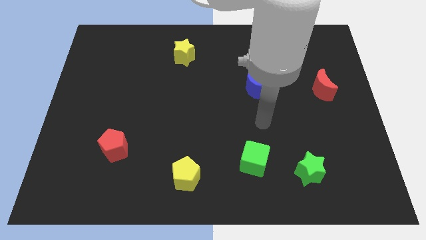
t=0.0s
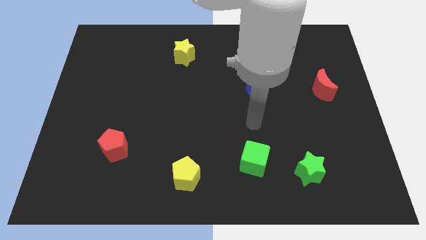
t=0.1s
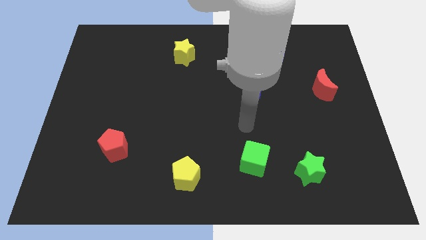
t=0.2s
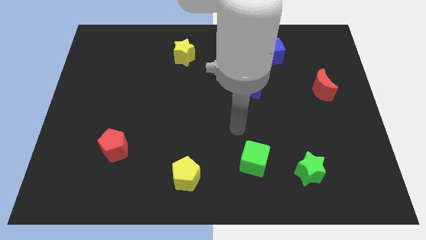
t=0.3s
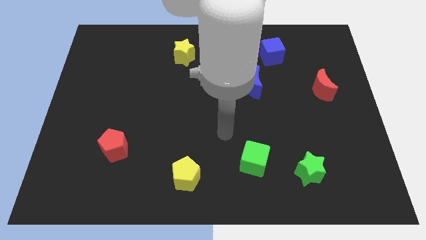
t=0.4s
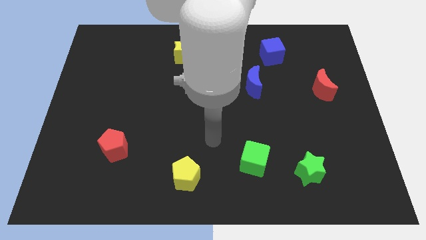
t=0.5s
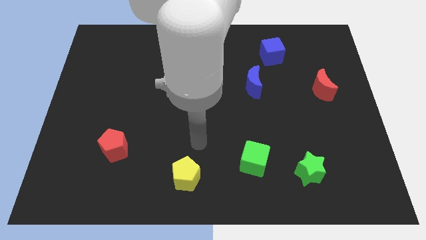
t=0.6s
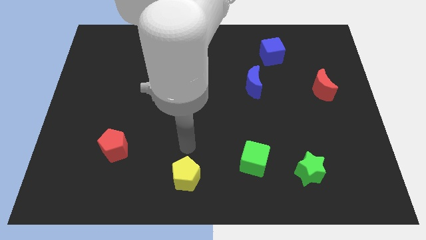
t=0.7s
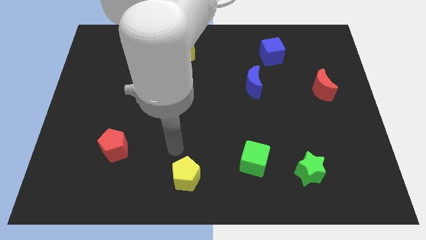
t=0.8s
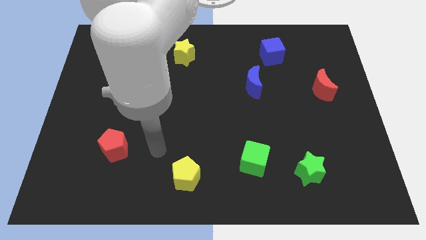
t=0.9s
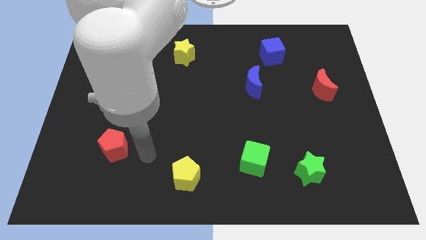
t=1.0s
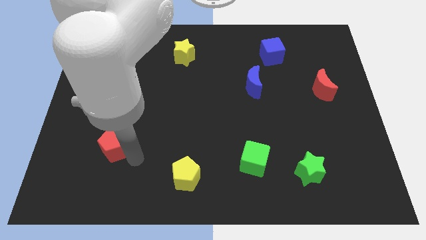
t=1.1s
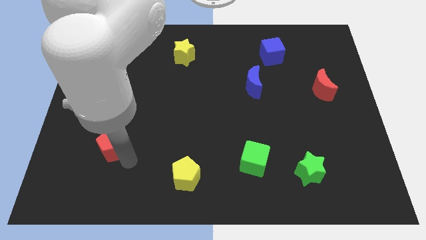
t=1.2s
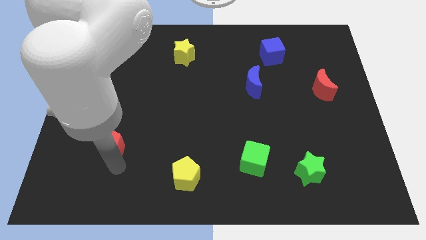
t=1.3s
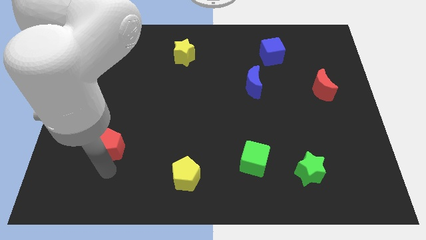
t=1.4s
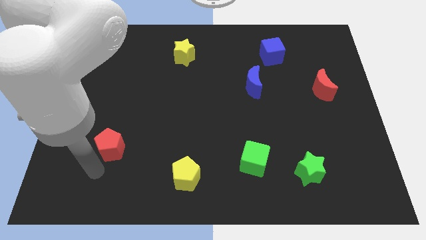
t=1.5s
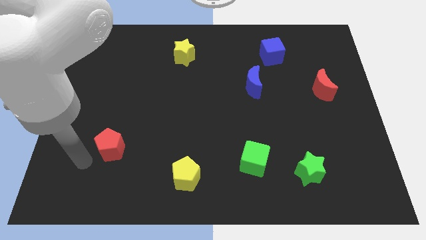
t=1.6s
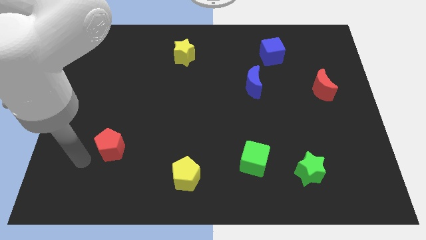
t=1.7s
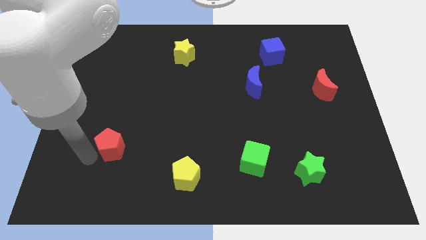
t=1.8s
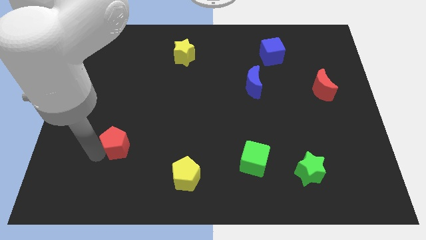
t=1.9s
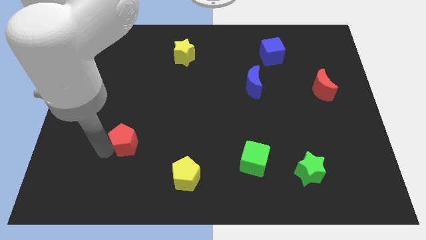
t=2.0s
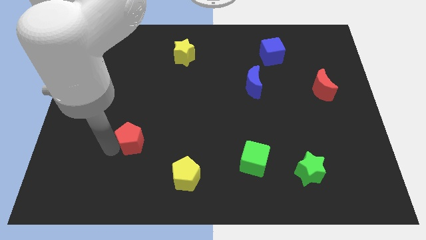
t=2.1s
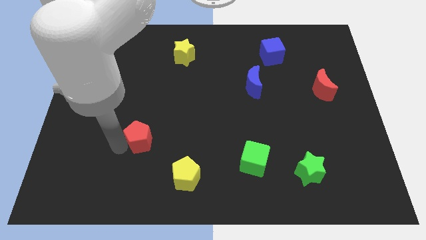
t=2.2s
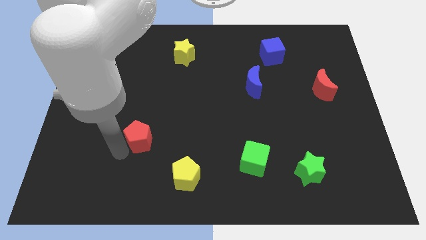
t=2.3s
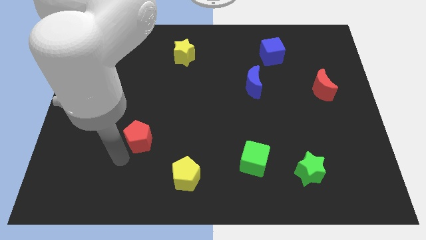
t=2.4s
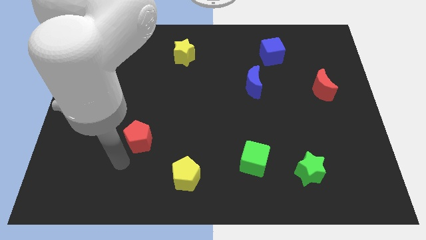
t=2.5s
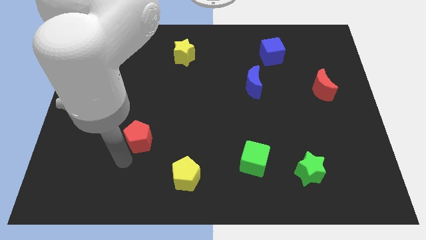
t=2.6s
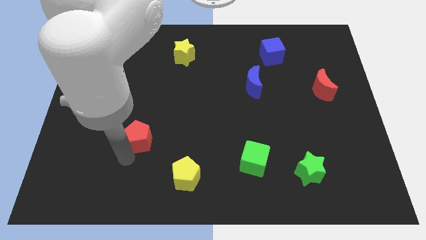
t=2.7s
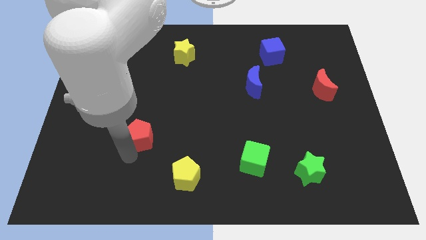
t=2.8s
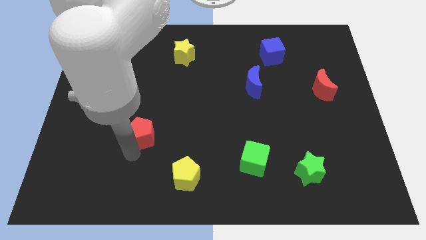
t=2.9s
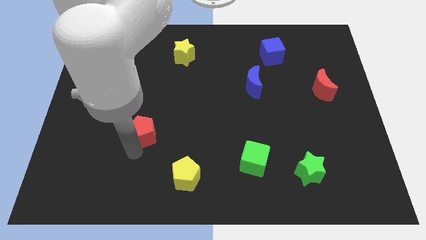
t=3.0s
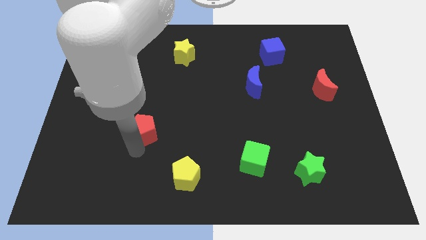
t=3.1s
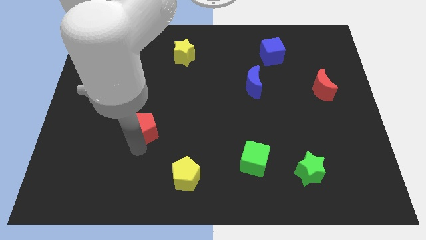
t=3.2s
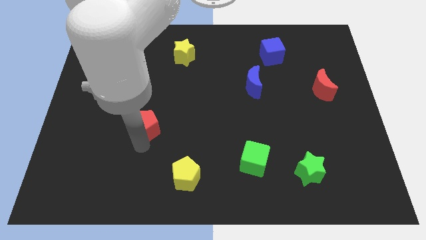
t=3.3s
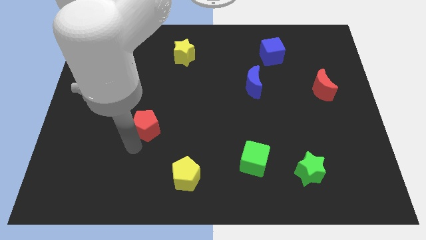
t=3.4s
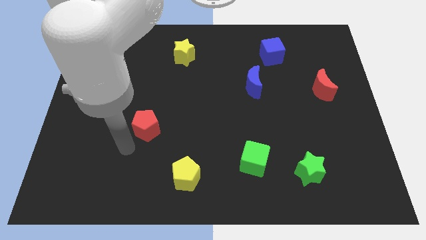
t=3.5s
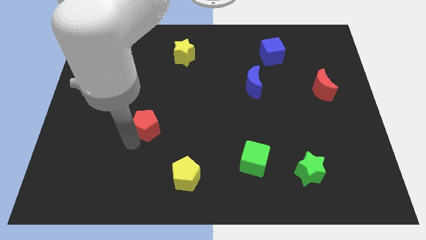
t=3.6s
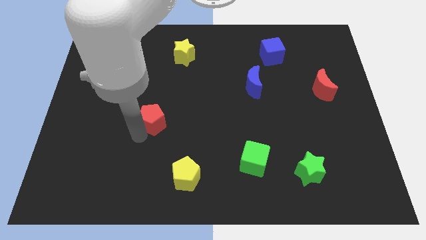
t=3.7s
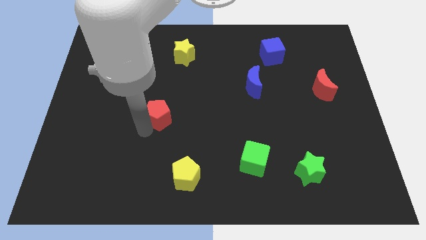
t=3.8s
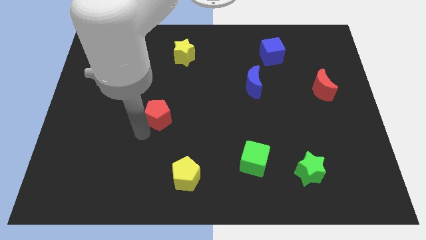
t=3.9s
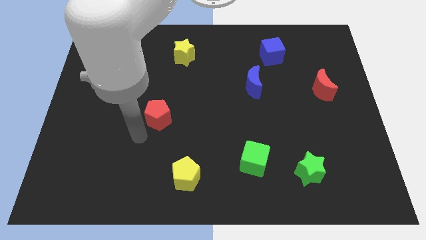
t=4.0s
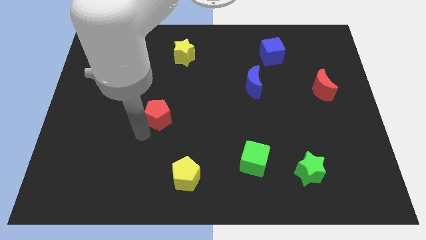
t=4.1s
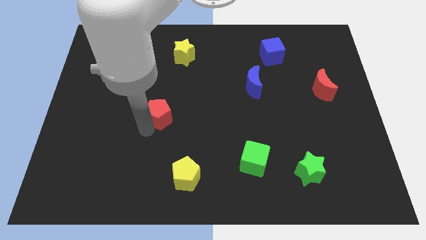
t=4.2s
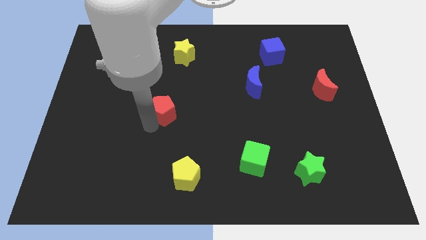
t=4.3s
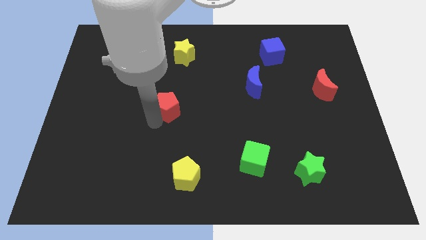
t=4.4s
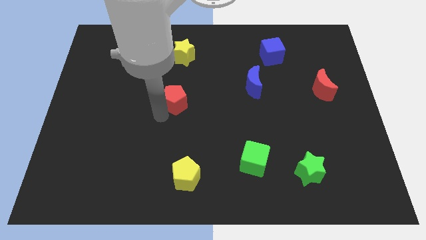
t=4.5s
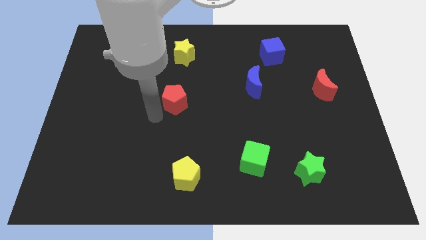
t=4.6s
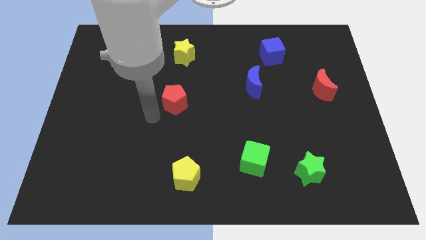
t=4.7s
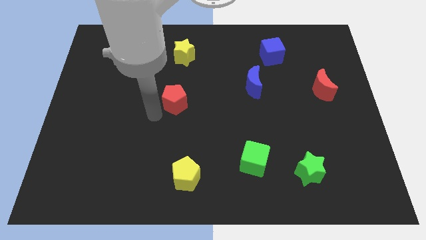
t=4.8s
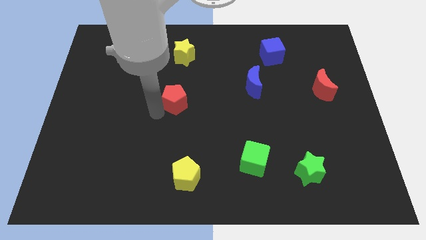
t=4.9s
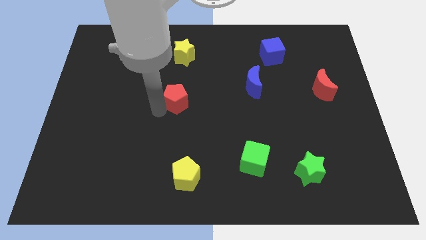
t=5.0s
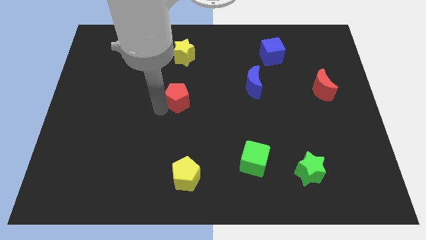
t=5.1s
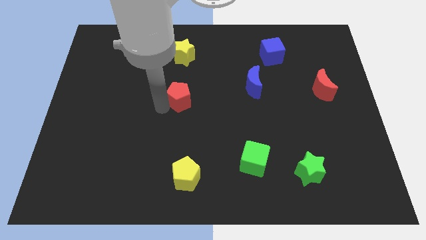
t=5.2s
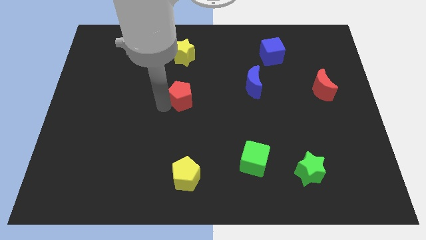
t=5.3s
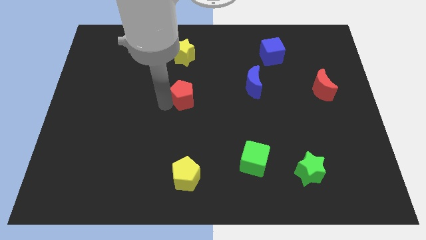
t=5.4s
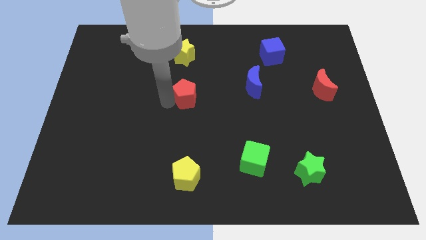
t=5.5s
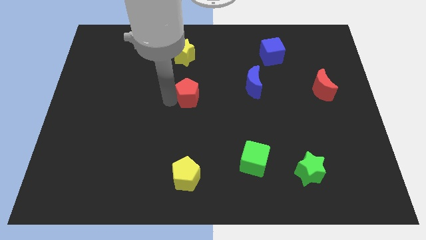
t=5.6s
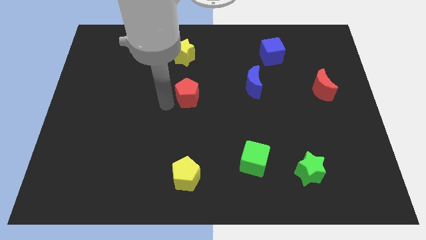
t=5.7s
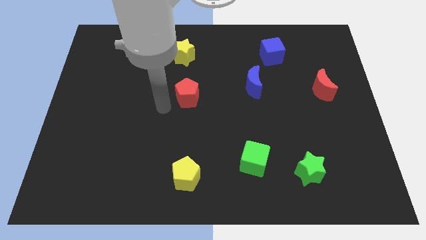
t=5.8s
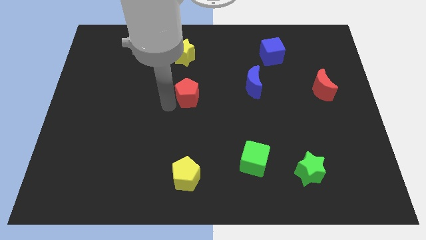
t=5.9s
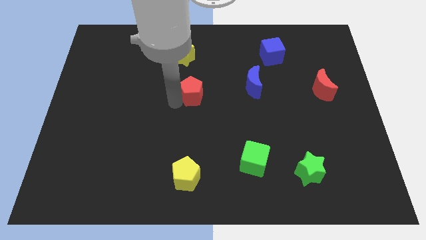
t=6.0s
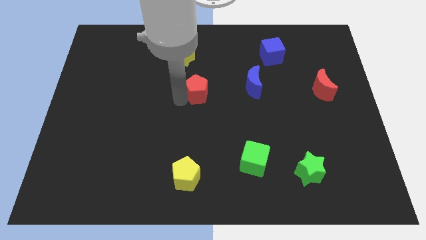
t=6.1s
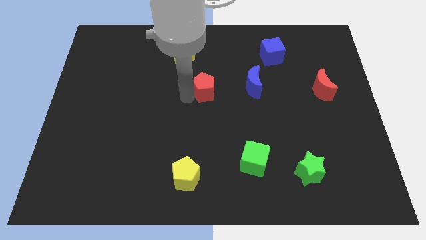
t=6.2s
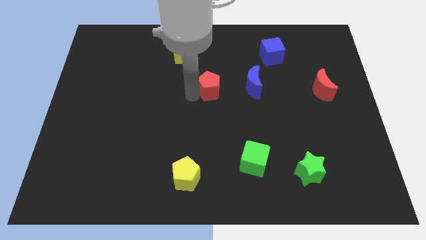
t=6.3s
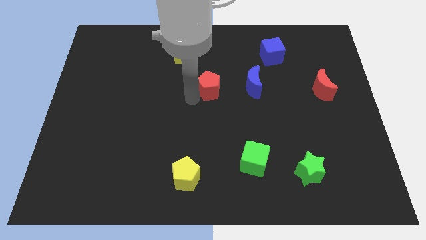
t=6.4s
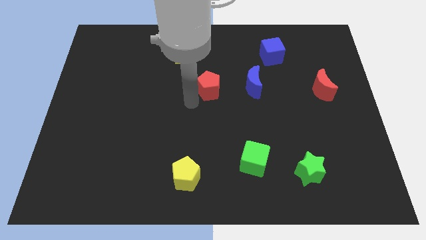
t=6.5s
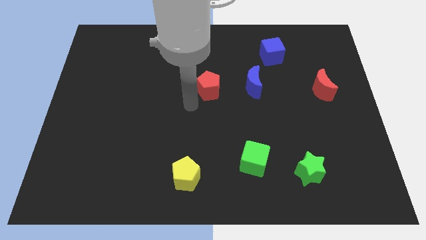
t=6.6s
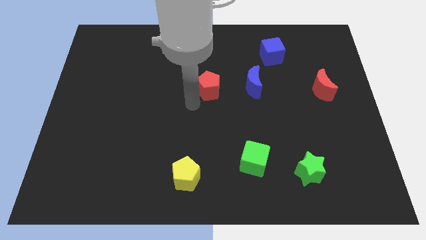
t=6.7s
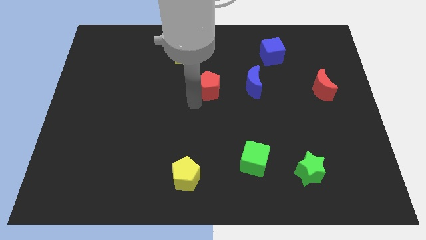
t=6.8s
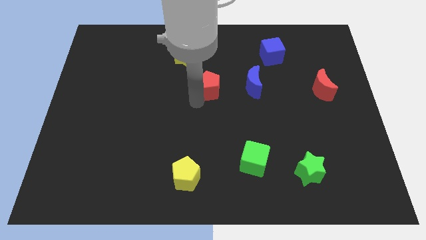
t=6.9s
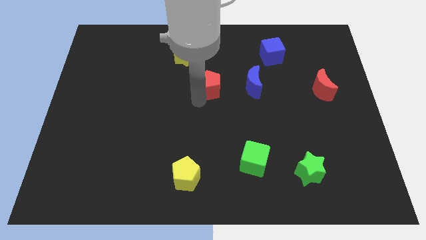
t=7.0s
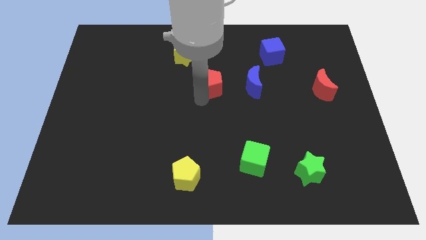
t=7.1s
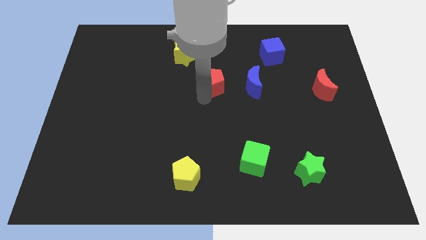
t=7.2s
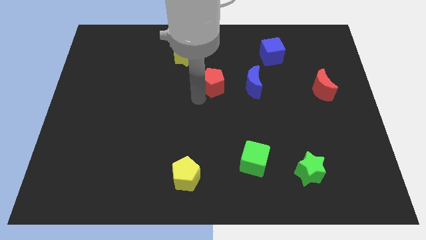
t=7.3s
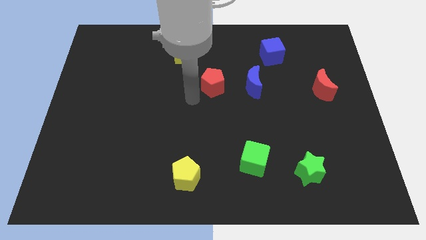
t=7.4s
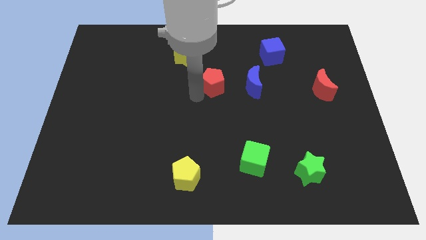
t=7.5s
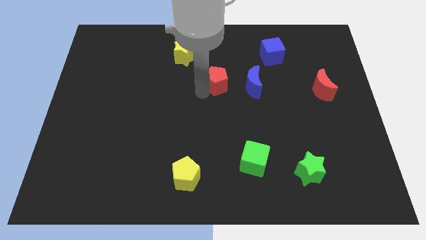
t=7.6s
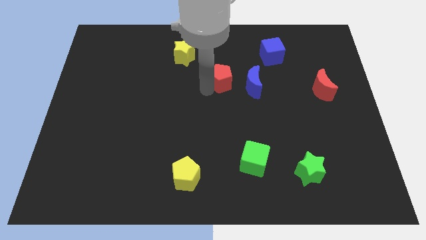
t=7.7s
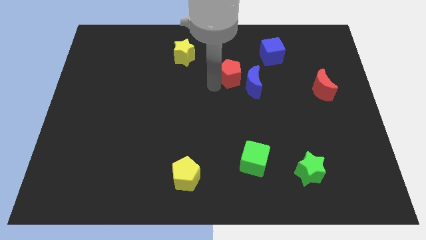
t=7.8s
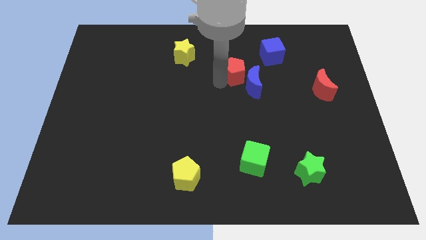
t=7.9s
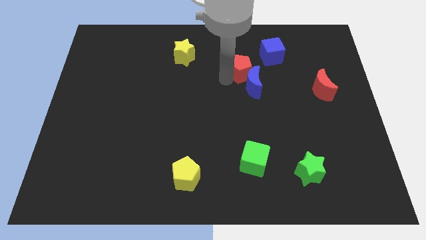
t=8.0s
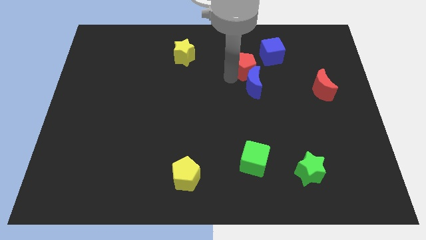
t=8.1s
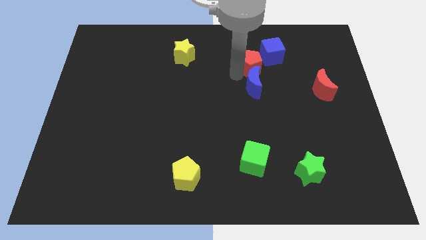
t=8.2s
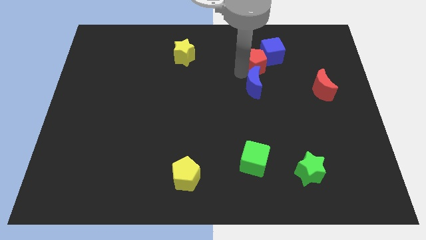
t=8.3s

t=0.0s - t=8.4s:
slide the red pentagon to the blue cube
